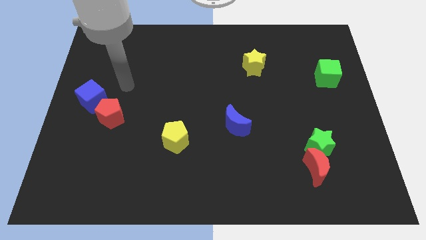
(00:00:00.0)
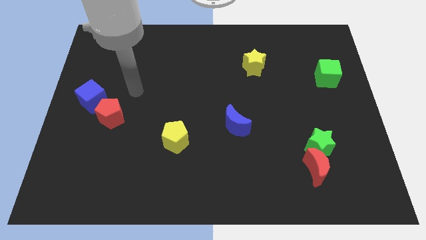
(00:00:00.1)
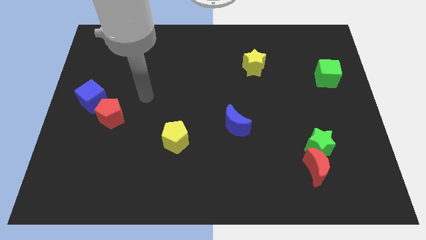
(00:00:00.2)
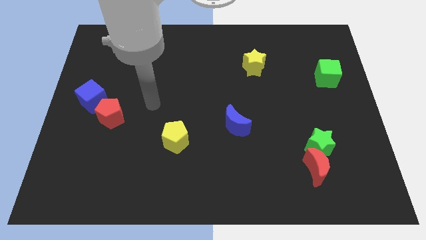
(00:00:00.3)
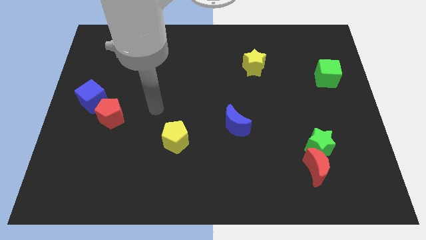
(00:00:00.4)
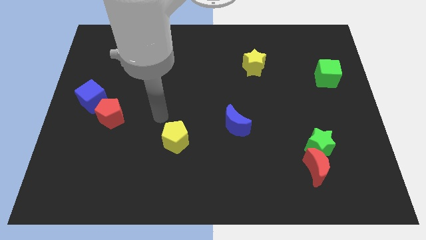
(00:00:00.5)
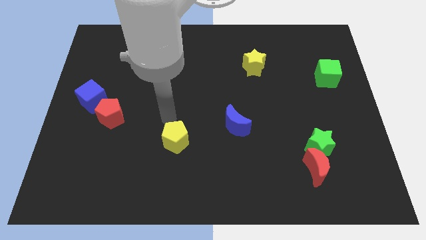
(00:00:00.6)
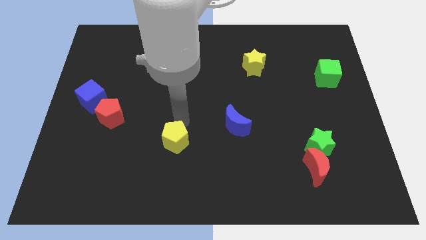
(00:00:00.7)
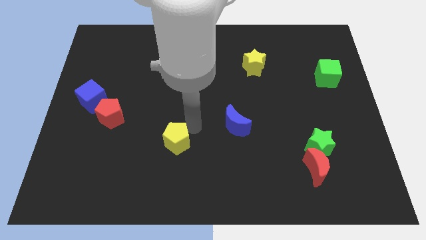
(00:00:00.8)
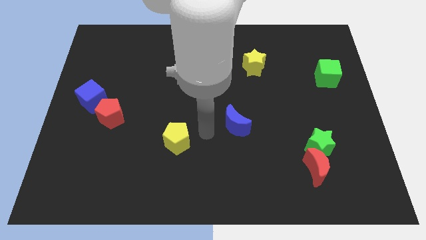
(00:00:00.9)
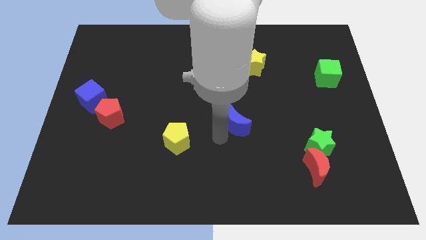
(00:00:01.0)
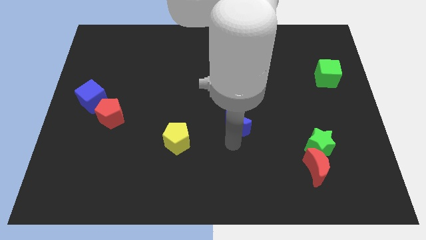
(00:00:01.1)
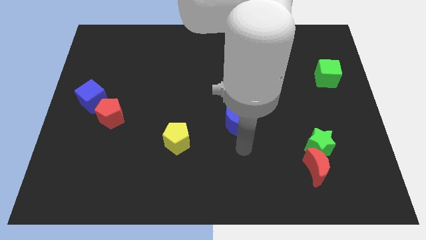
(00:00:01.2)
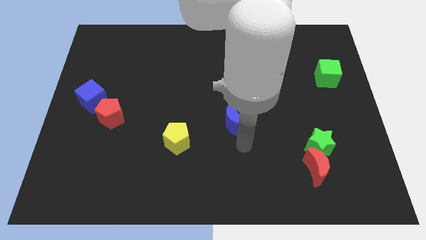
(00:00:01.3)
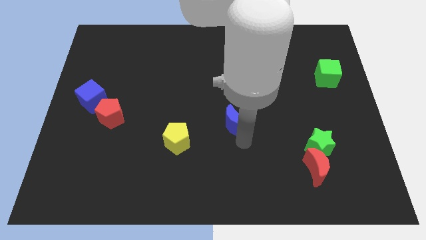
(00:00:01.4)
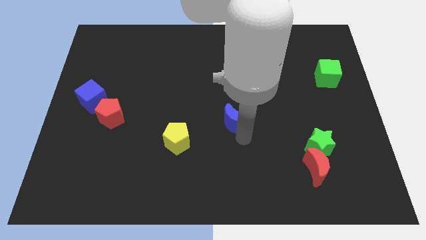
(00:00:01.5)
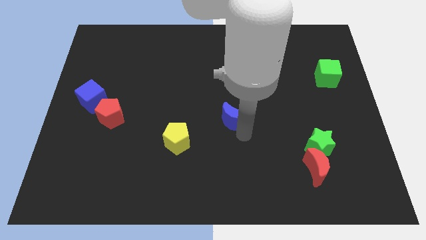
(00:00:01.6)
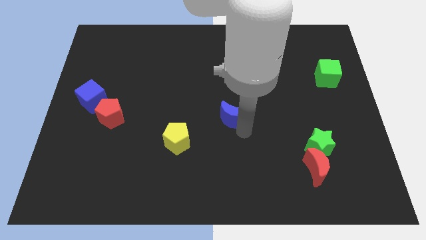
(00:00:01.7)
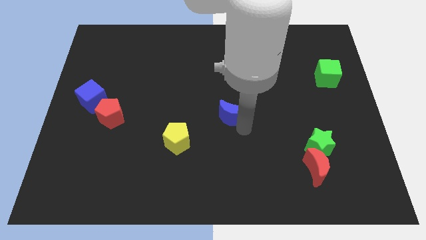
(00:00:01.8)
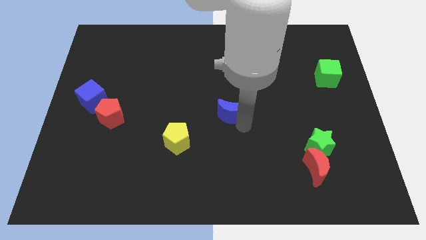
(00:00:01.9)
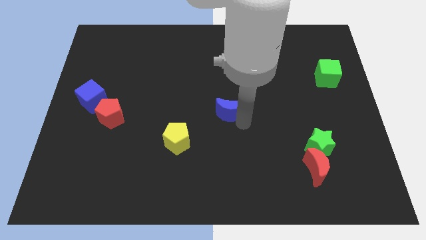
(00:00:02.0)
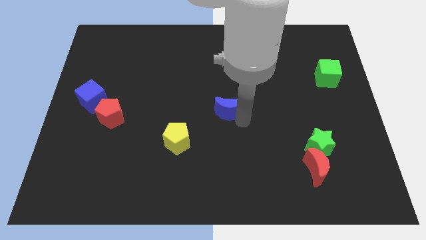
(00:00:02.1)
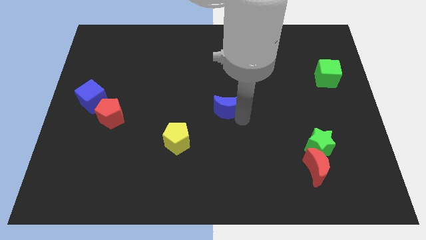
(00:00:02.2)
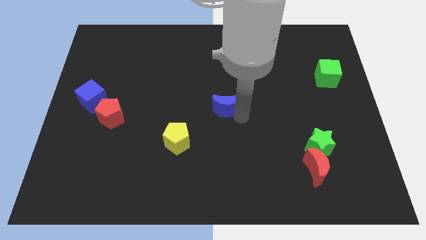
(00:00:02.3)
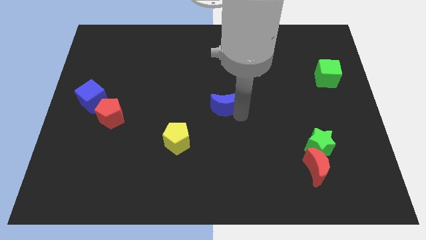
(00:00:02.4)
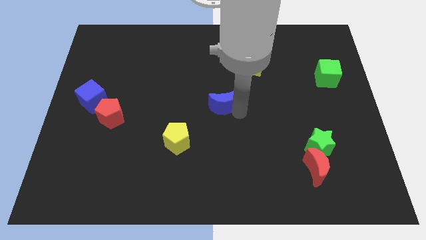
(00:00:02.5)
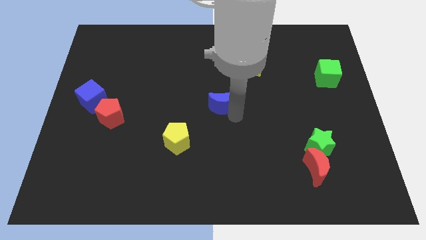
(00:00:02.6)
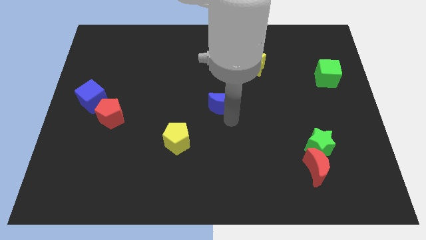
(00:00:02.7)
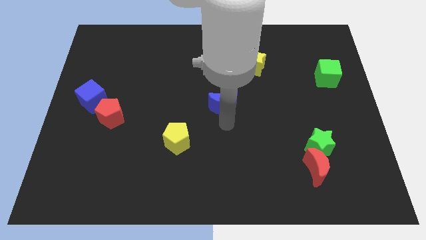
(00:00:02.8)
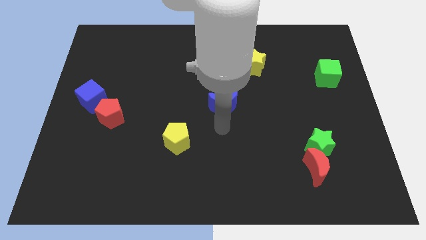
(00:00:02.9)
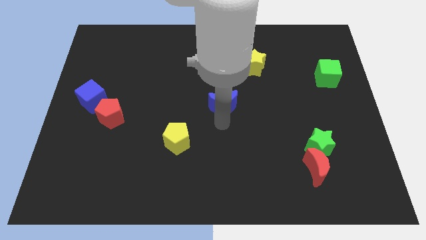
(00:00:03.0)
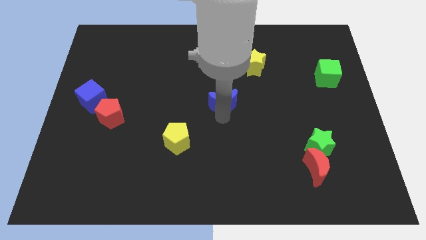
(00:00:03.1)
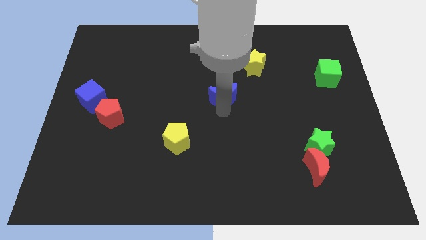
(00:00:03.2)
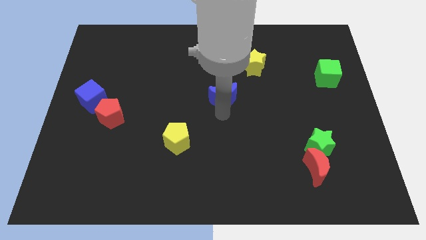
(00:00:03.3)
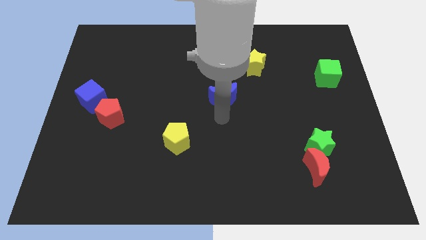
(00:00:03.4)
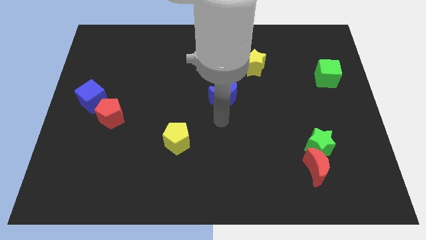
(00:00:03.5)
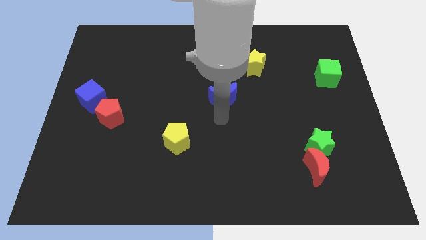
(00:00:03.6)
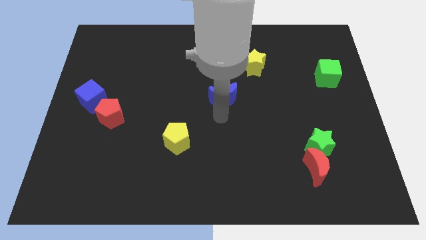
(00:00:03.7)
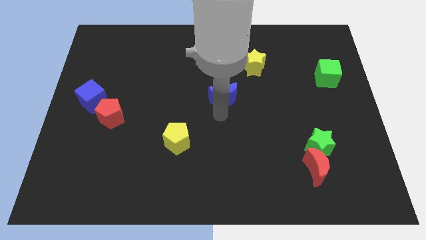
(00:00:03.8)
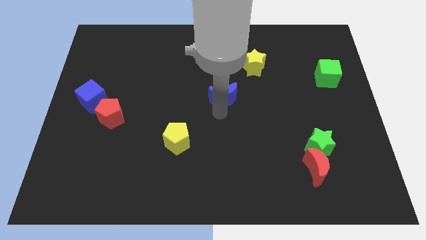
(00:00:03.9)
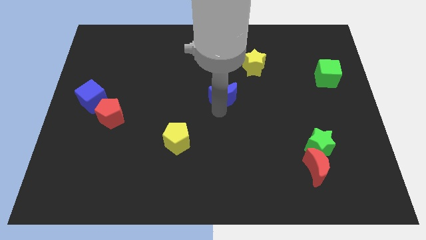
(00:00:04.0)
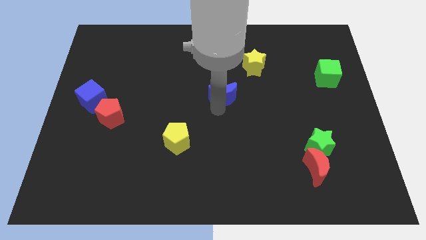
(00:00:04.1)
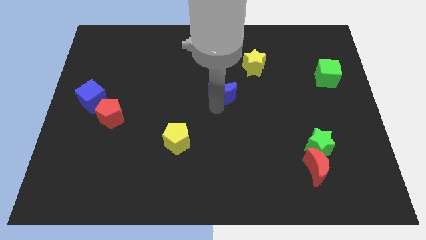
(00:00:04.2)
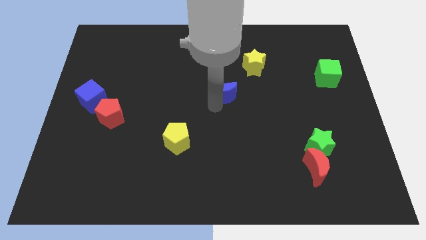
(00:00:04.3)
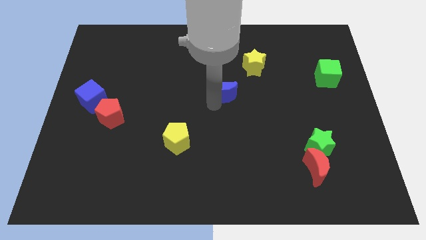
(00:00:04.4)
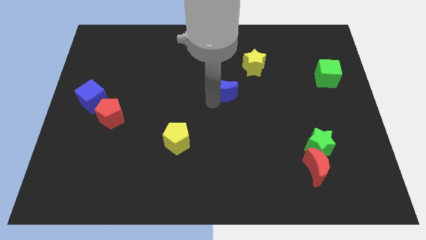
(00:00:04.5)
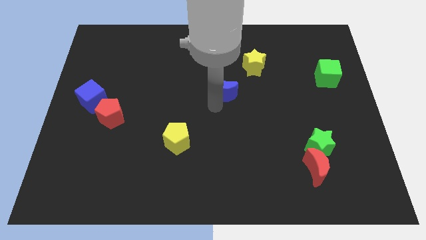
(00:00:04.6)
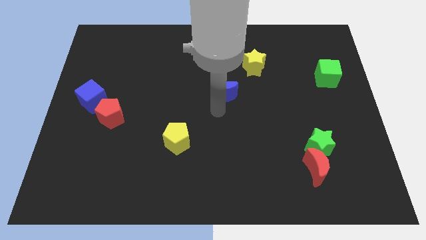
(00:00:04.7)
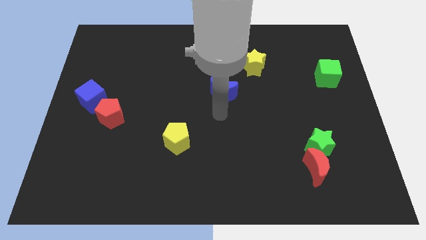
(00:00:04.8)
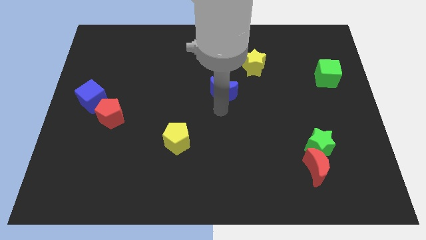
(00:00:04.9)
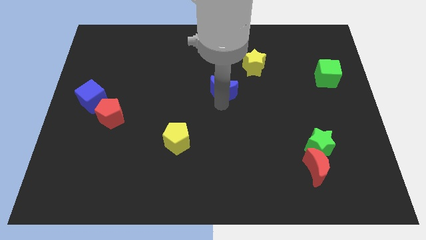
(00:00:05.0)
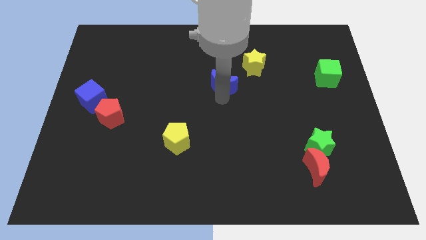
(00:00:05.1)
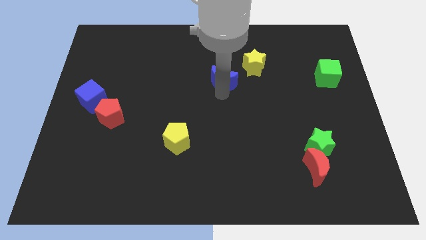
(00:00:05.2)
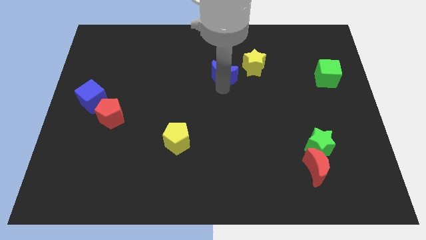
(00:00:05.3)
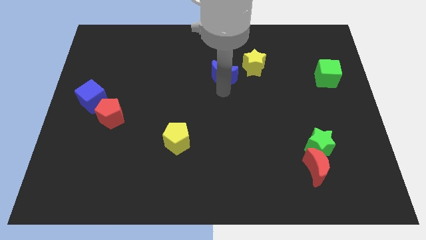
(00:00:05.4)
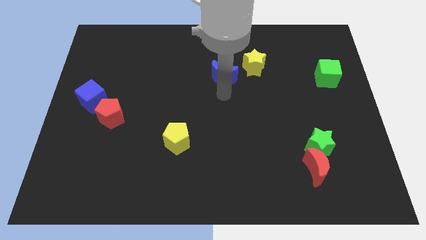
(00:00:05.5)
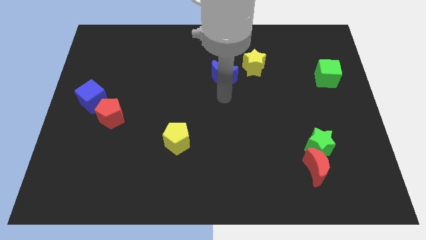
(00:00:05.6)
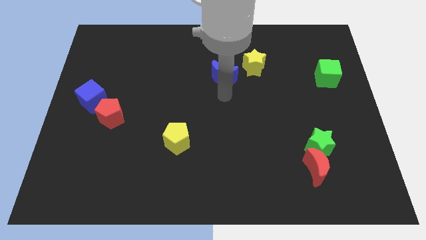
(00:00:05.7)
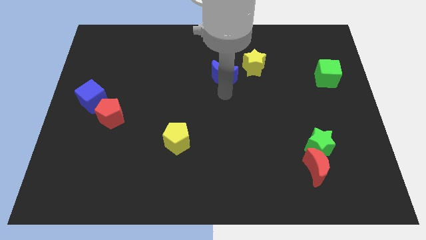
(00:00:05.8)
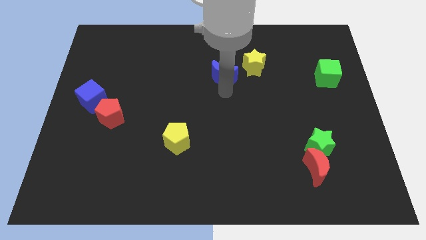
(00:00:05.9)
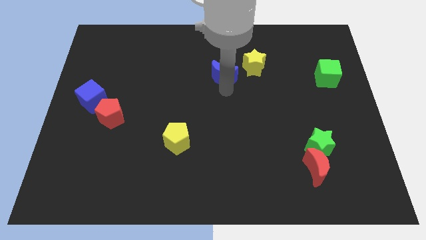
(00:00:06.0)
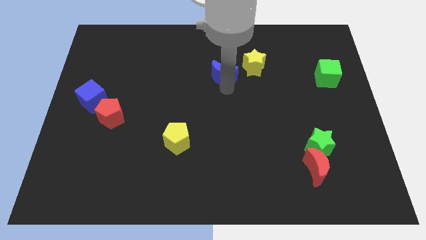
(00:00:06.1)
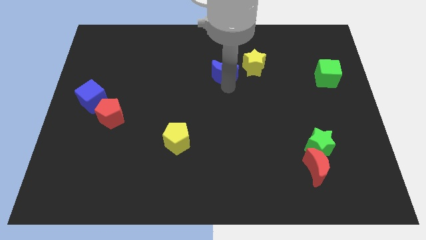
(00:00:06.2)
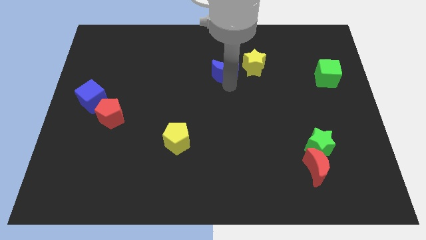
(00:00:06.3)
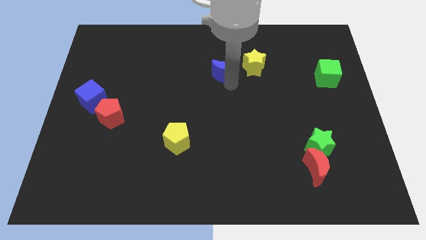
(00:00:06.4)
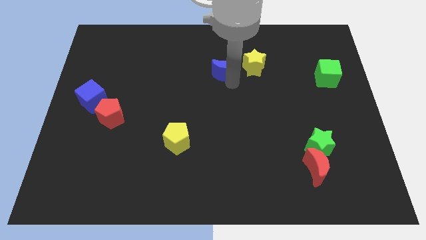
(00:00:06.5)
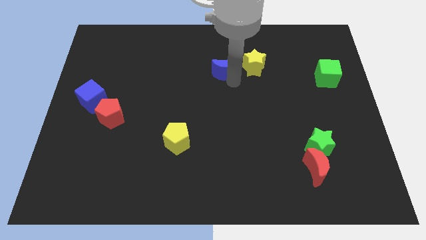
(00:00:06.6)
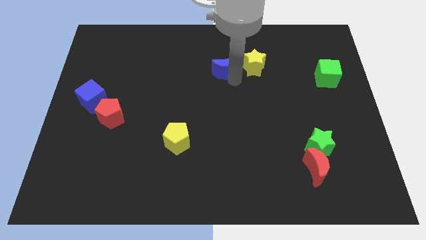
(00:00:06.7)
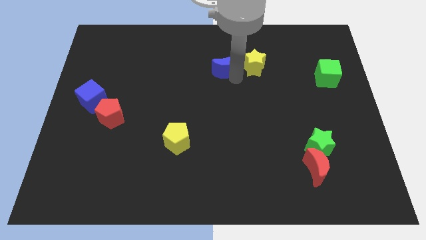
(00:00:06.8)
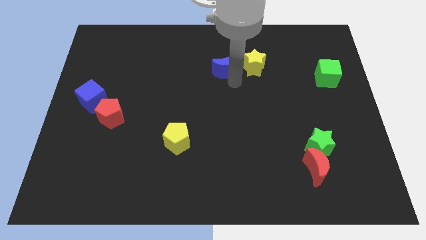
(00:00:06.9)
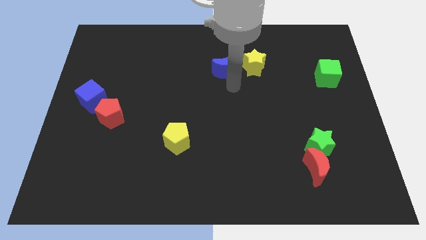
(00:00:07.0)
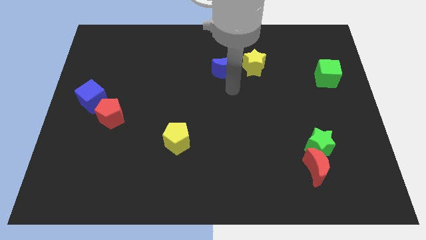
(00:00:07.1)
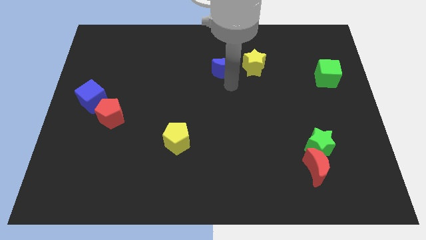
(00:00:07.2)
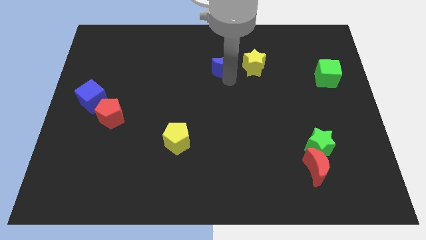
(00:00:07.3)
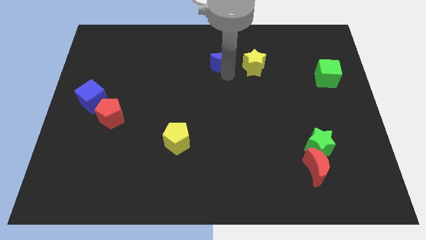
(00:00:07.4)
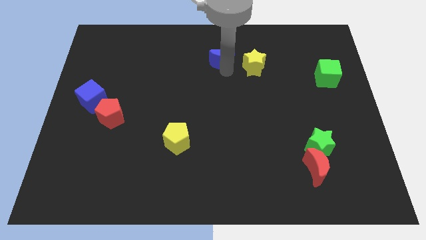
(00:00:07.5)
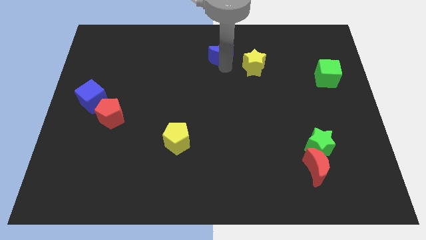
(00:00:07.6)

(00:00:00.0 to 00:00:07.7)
push the blue moon to the towards your base
